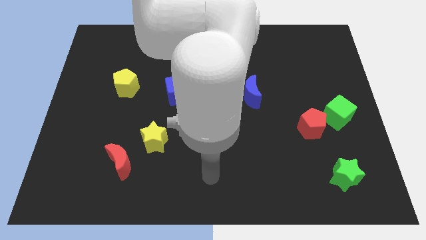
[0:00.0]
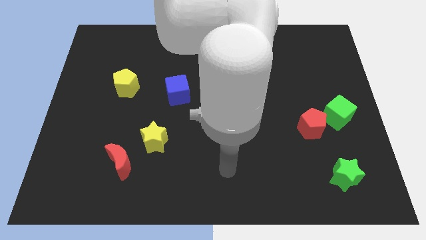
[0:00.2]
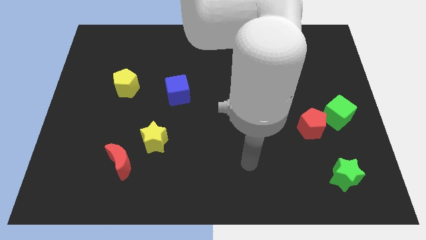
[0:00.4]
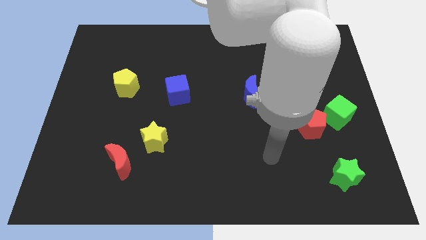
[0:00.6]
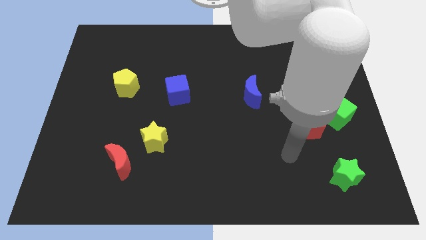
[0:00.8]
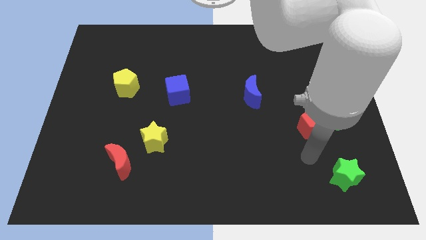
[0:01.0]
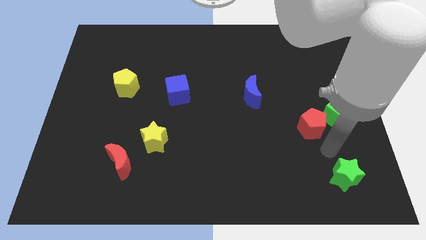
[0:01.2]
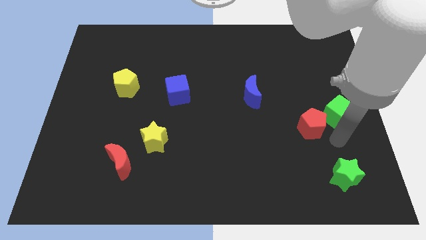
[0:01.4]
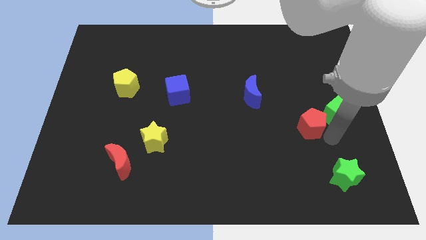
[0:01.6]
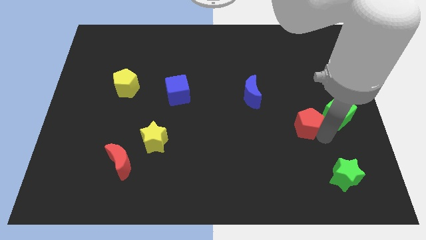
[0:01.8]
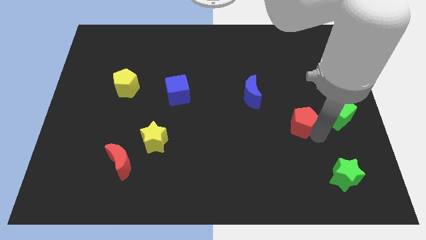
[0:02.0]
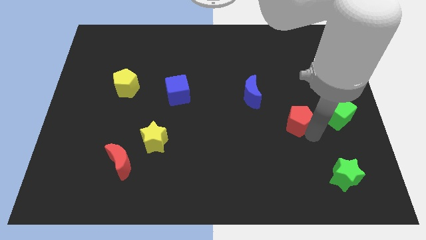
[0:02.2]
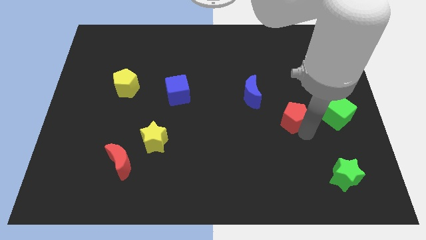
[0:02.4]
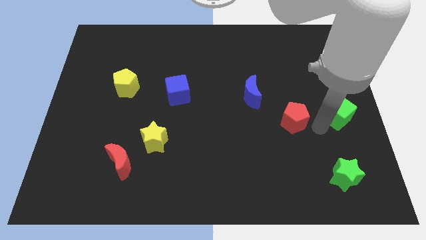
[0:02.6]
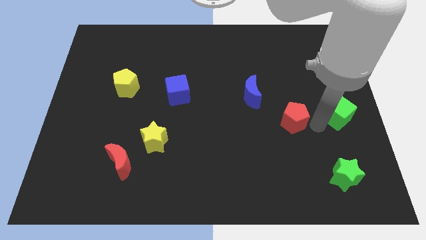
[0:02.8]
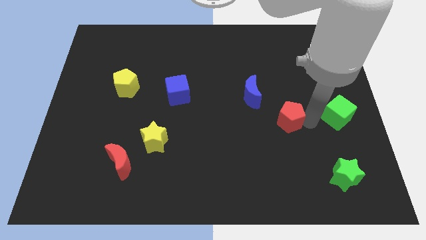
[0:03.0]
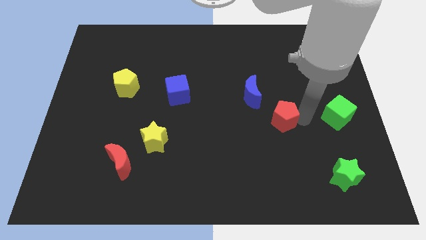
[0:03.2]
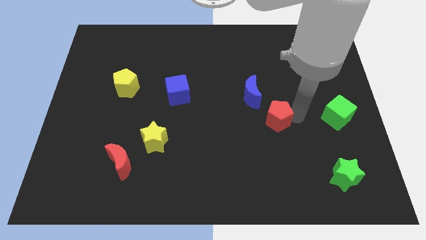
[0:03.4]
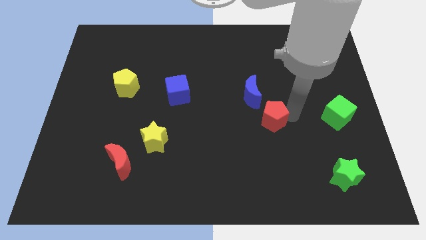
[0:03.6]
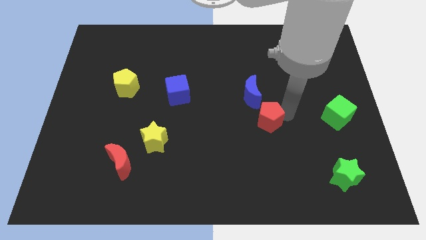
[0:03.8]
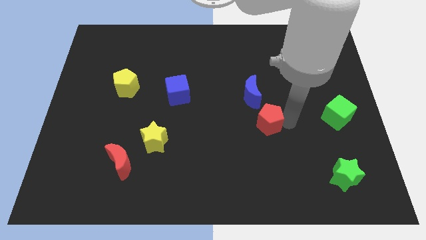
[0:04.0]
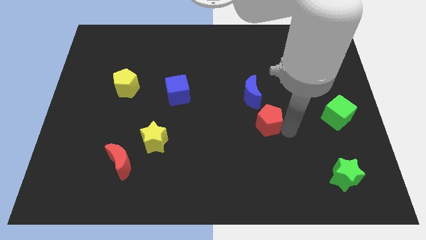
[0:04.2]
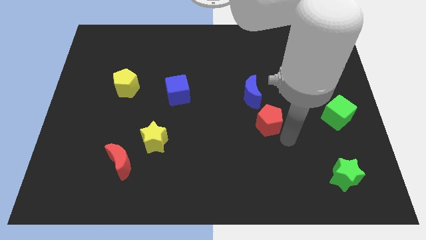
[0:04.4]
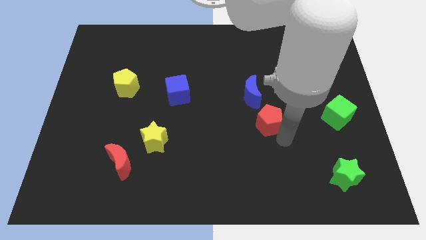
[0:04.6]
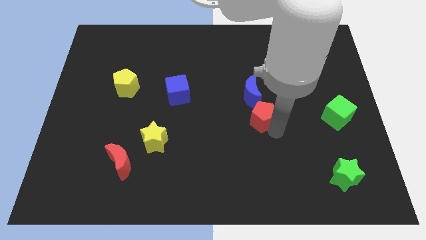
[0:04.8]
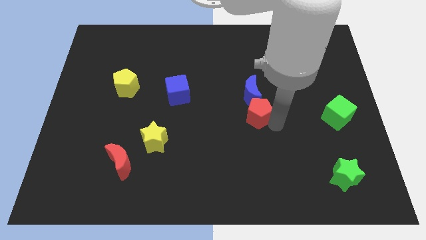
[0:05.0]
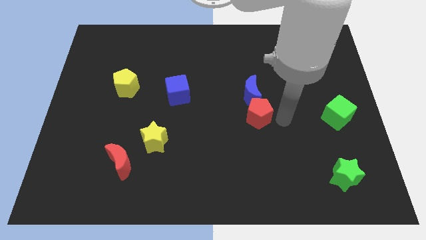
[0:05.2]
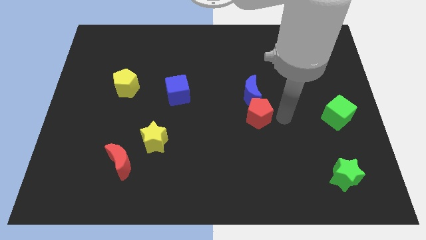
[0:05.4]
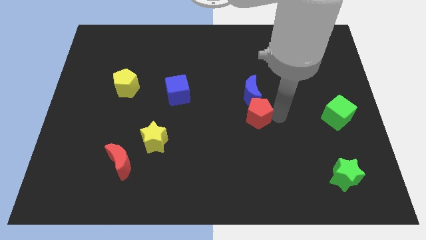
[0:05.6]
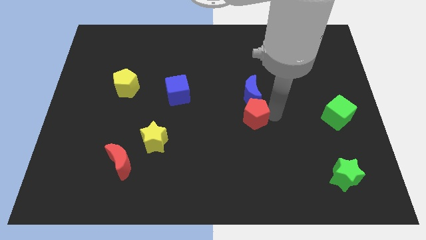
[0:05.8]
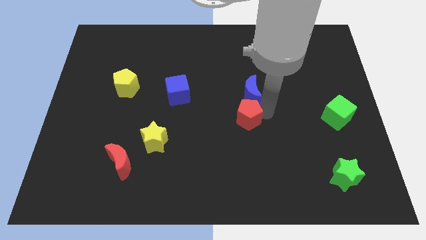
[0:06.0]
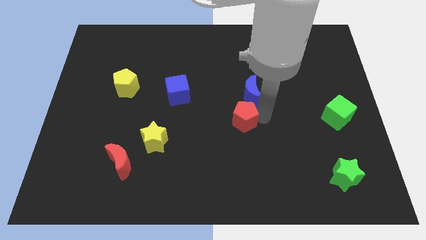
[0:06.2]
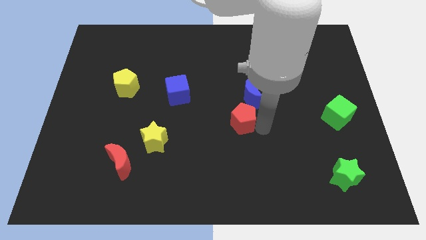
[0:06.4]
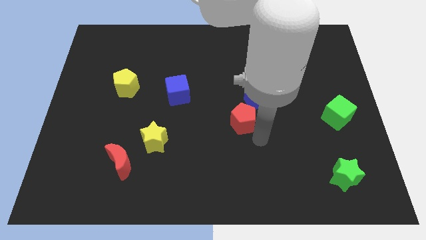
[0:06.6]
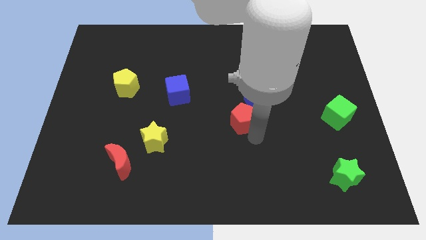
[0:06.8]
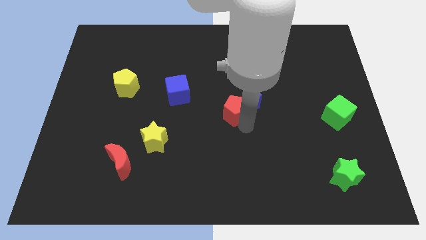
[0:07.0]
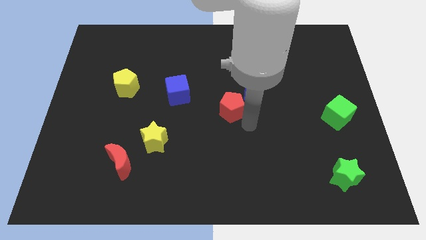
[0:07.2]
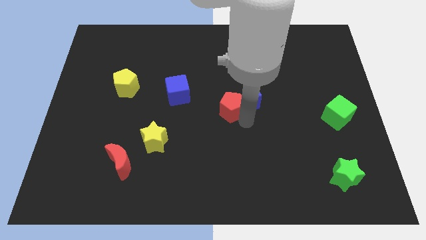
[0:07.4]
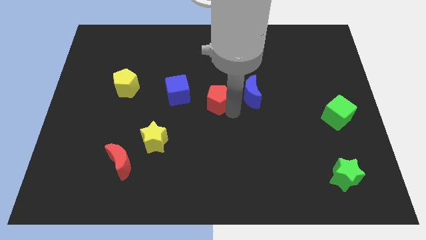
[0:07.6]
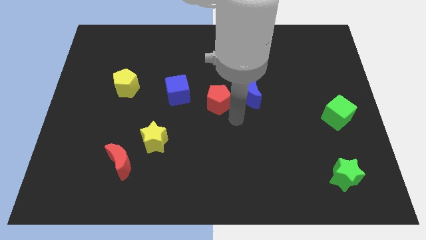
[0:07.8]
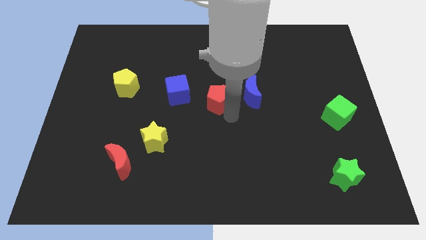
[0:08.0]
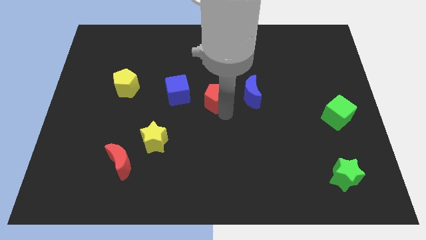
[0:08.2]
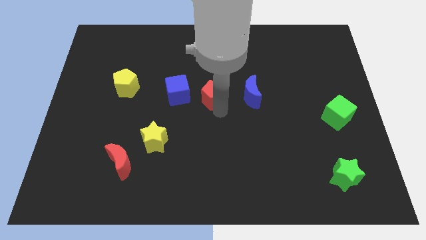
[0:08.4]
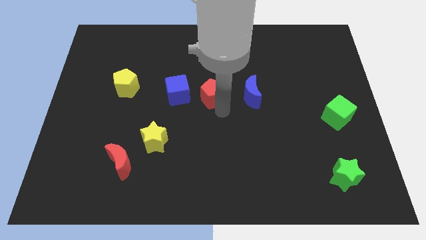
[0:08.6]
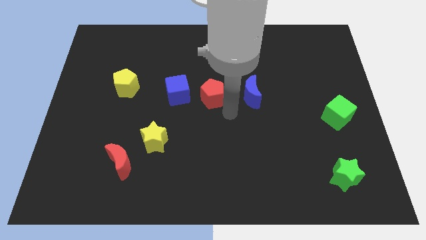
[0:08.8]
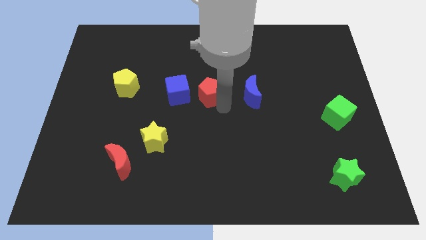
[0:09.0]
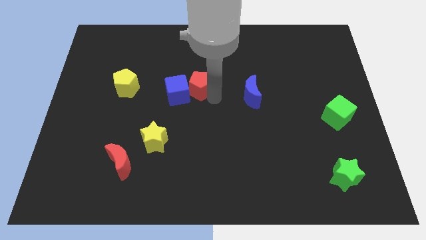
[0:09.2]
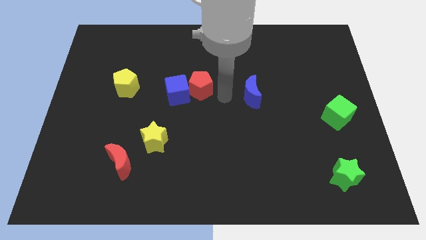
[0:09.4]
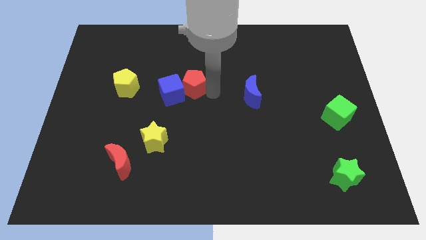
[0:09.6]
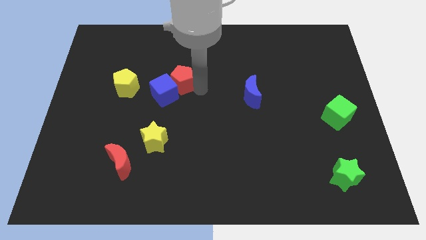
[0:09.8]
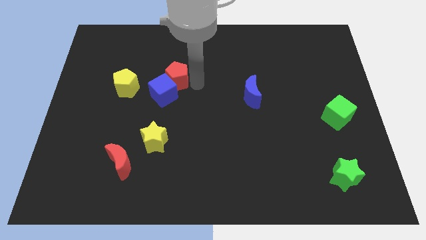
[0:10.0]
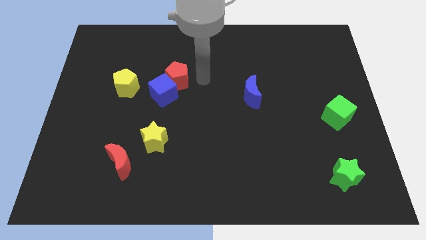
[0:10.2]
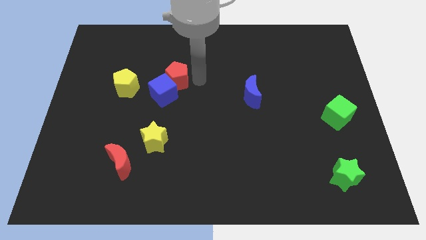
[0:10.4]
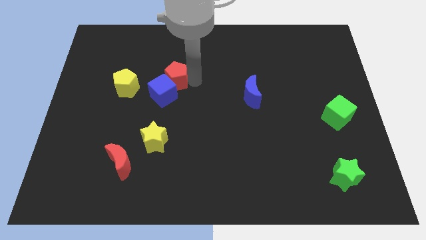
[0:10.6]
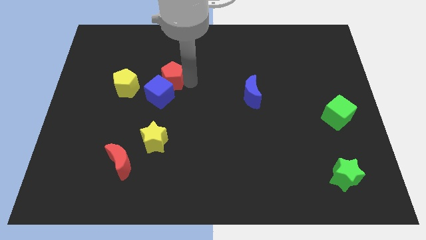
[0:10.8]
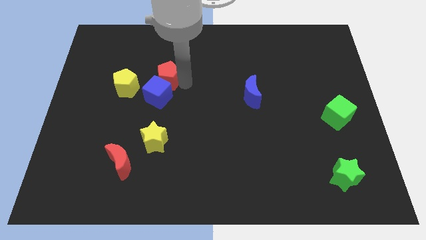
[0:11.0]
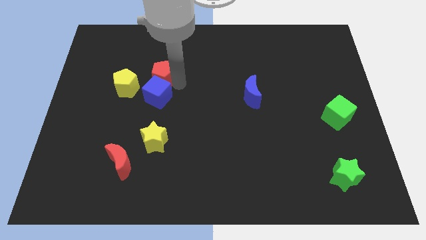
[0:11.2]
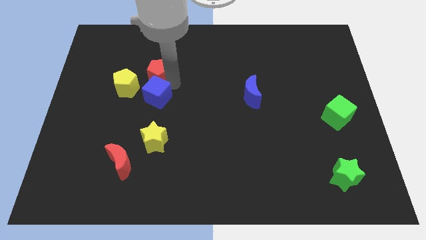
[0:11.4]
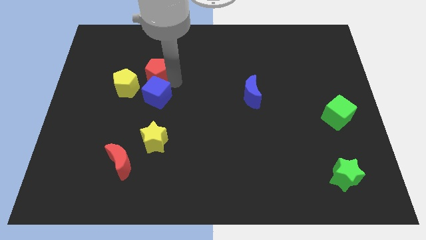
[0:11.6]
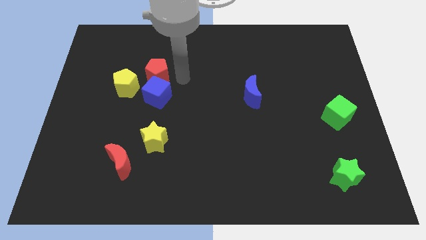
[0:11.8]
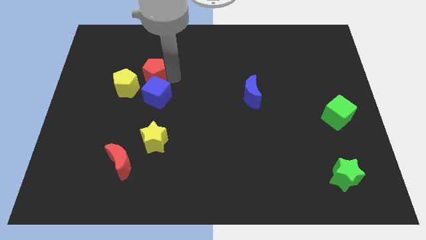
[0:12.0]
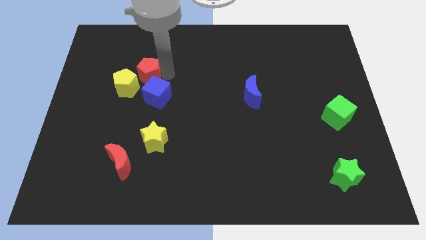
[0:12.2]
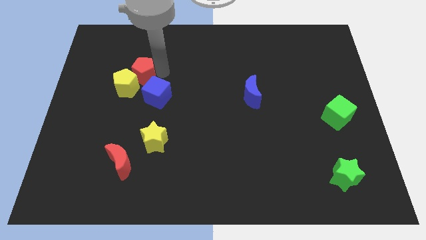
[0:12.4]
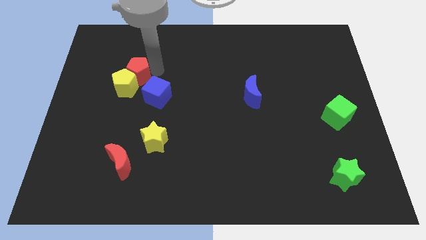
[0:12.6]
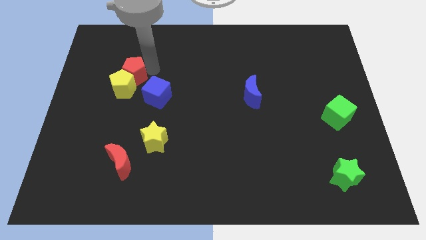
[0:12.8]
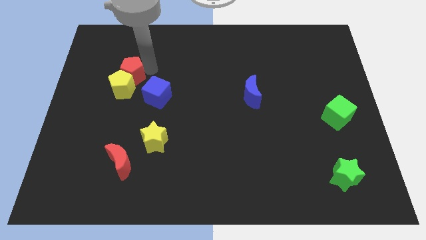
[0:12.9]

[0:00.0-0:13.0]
move the red pentagon to the top left side of the yellow pentagon

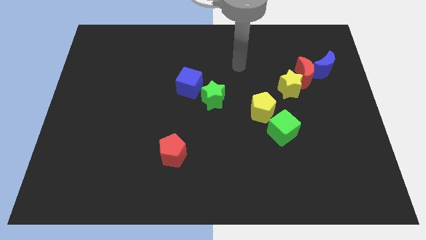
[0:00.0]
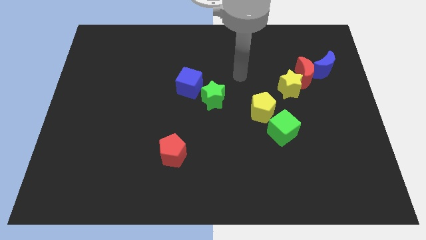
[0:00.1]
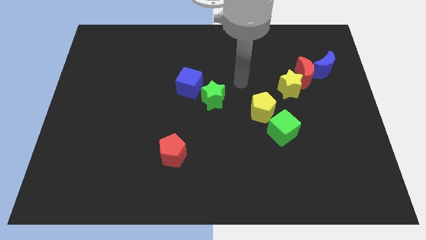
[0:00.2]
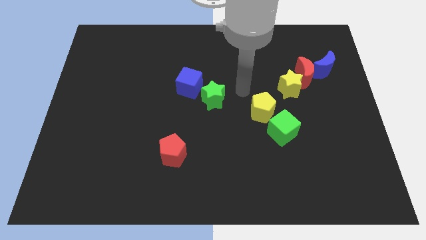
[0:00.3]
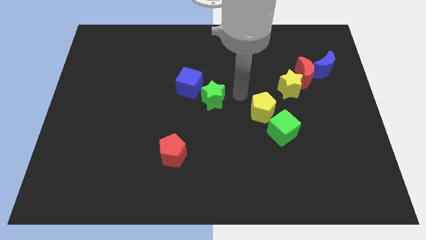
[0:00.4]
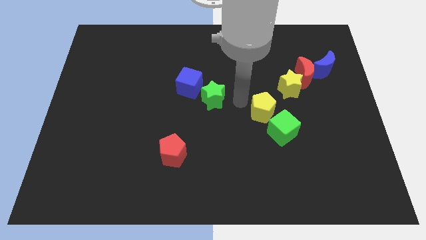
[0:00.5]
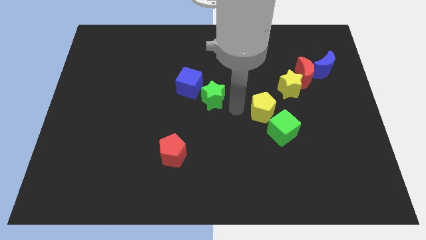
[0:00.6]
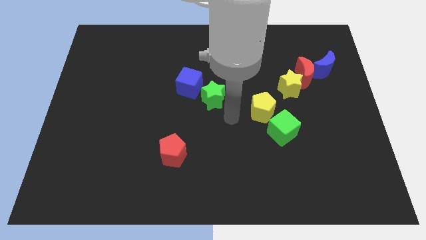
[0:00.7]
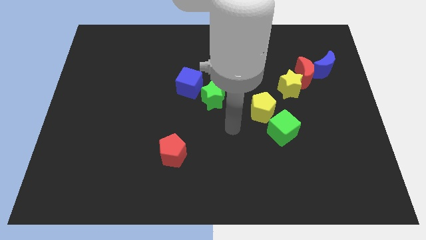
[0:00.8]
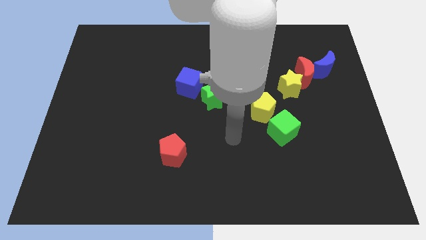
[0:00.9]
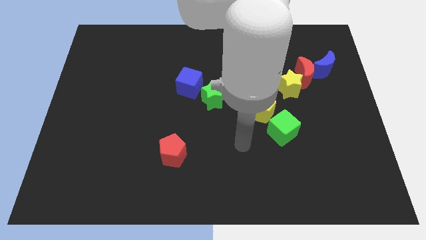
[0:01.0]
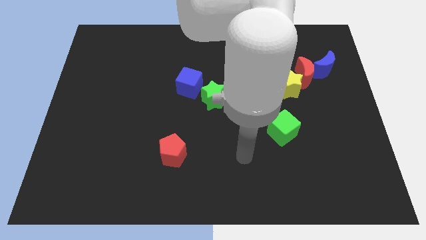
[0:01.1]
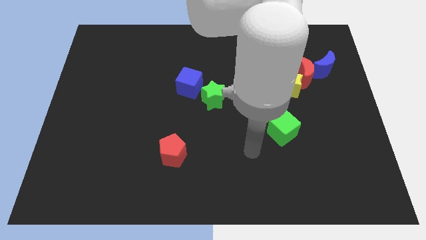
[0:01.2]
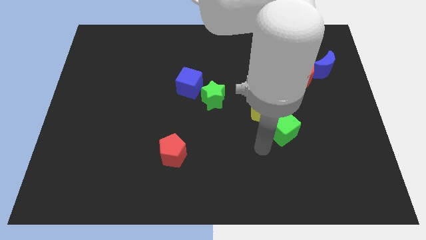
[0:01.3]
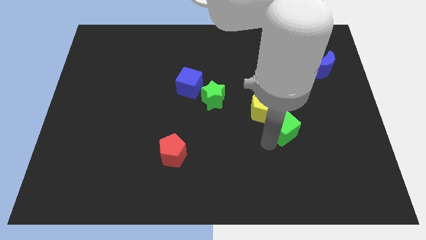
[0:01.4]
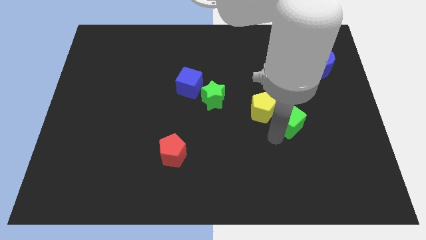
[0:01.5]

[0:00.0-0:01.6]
push the green cube right of the yellow pentagon
